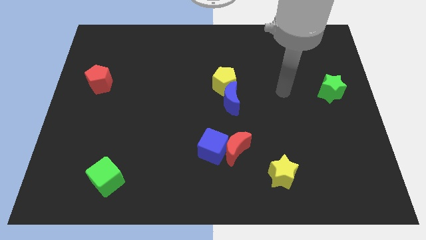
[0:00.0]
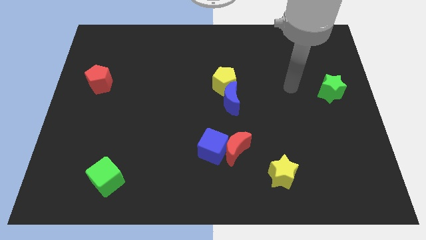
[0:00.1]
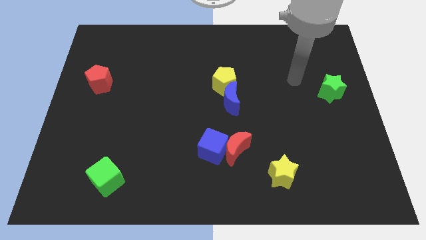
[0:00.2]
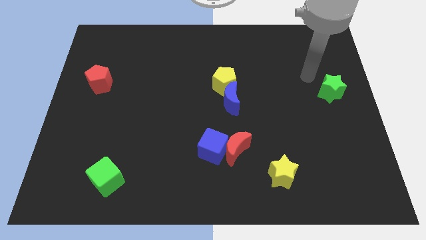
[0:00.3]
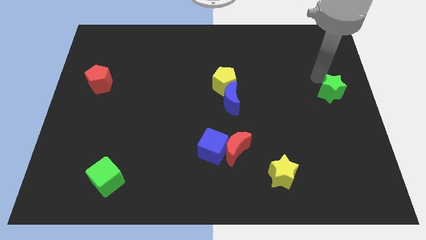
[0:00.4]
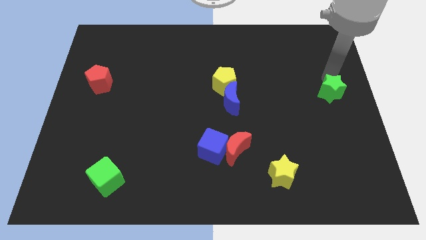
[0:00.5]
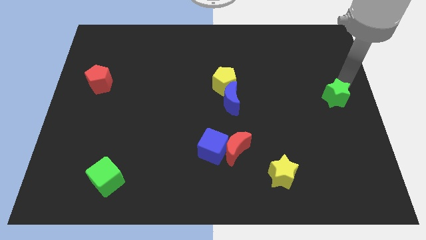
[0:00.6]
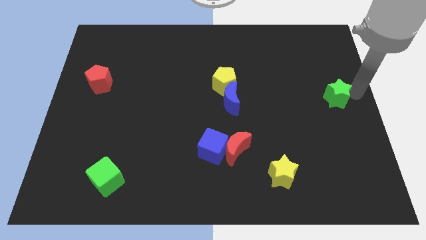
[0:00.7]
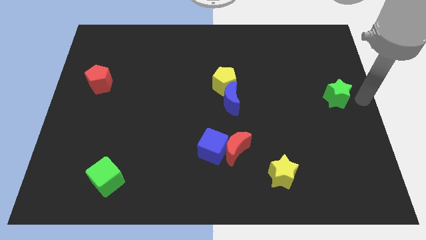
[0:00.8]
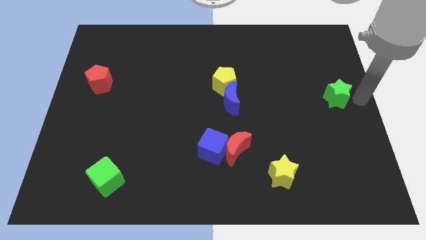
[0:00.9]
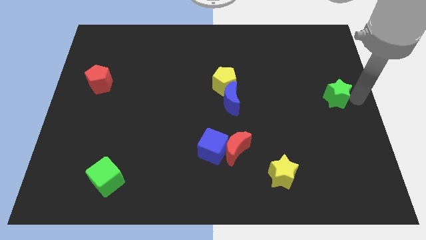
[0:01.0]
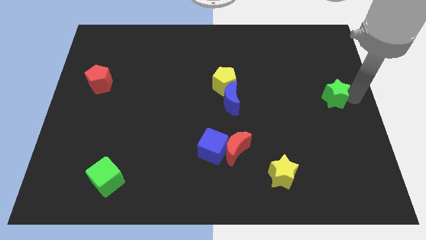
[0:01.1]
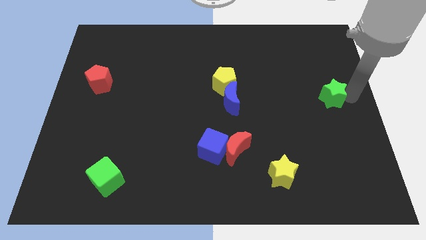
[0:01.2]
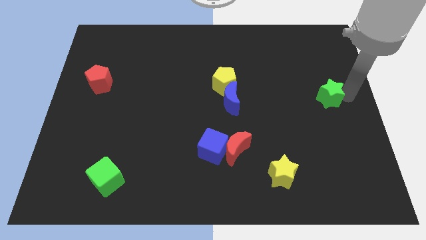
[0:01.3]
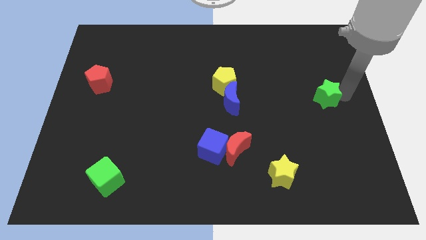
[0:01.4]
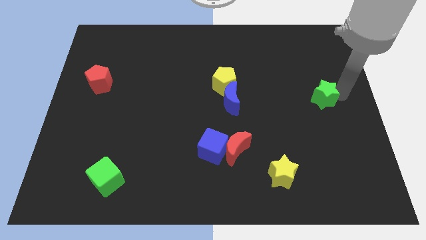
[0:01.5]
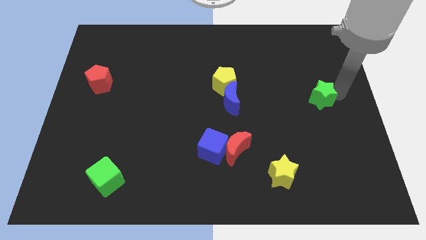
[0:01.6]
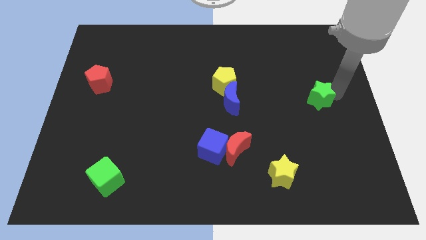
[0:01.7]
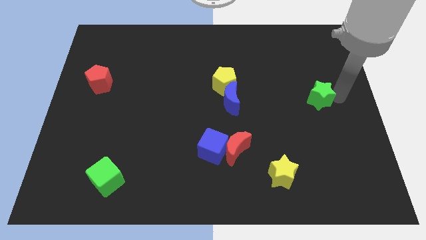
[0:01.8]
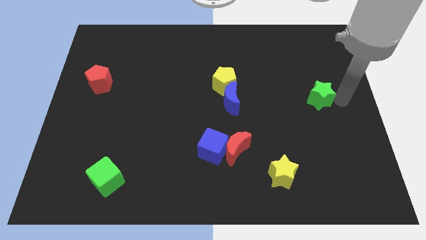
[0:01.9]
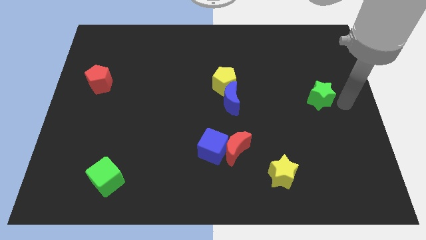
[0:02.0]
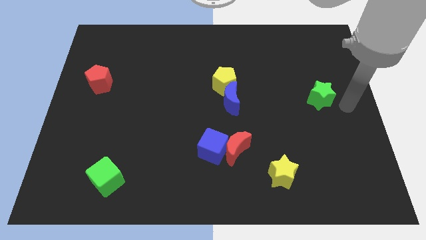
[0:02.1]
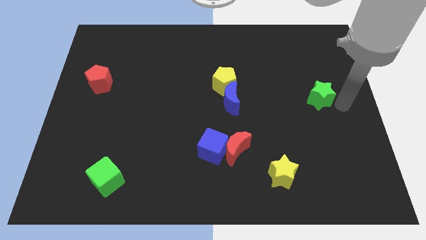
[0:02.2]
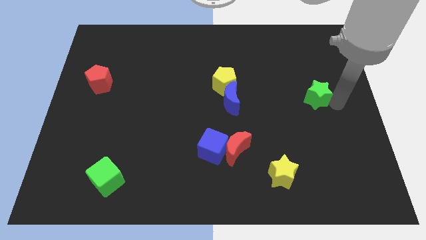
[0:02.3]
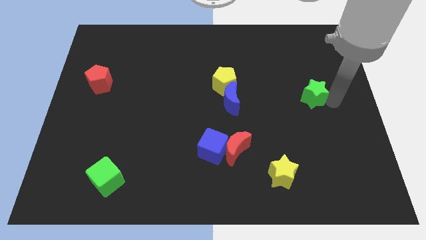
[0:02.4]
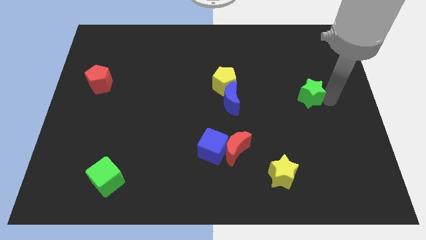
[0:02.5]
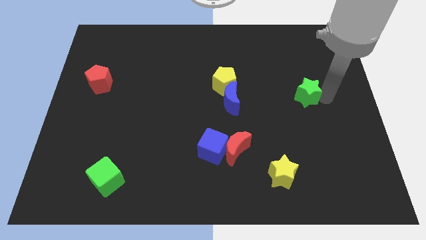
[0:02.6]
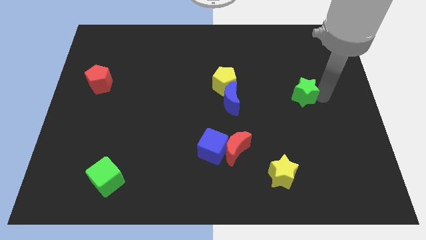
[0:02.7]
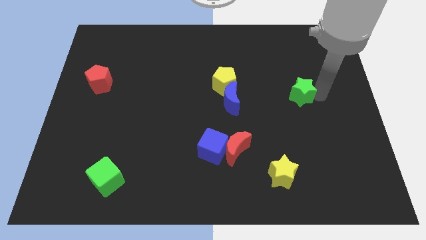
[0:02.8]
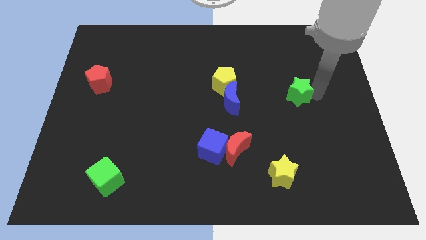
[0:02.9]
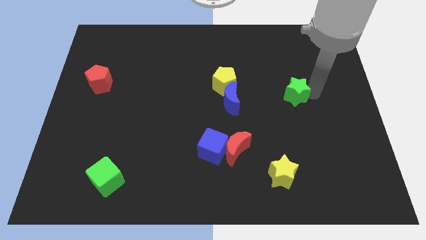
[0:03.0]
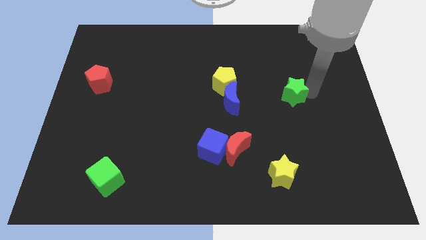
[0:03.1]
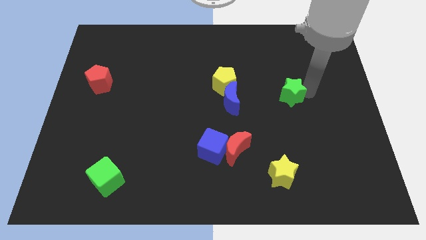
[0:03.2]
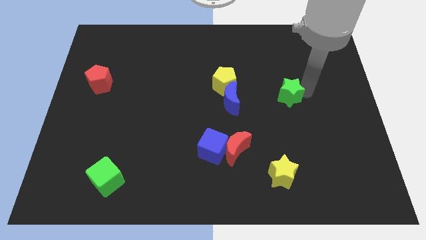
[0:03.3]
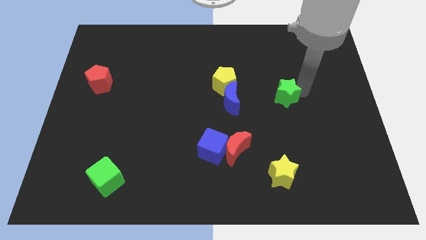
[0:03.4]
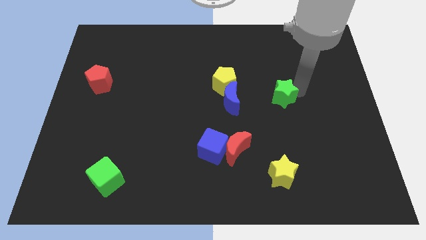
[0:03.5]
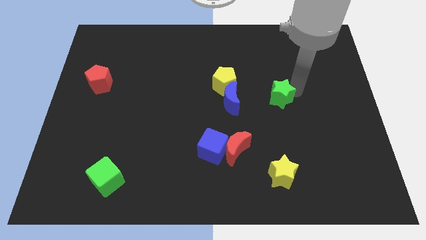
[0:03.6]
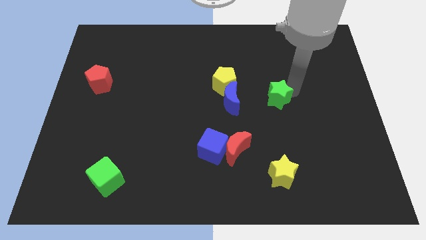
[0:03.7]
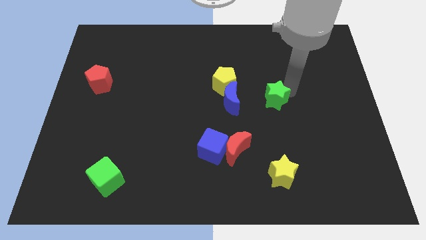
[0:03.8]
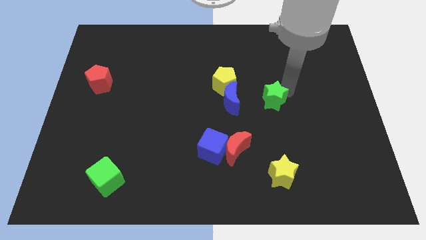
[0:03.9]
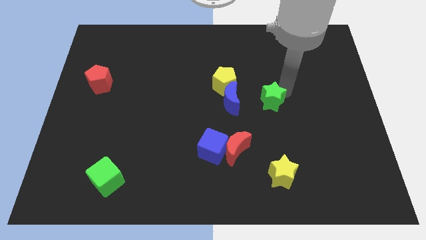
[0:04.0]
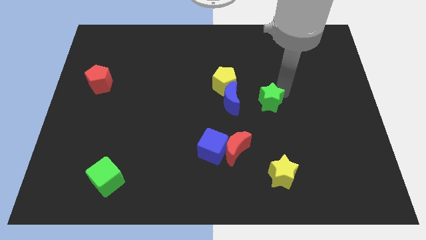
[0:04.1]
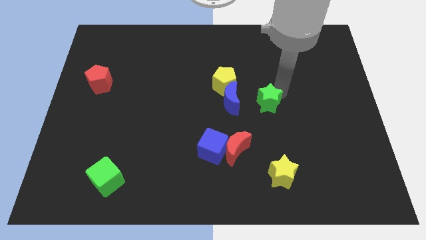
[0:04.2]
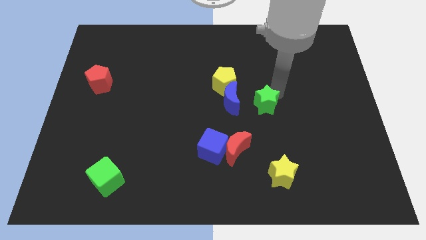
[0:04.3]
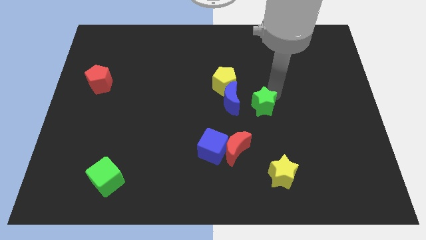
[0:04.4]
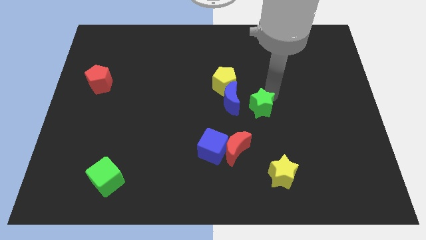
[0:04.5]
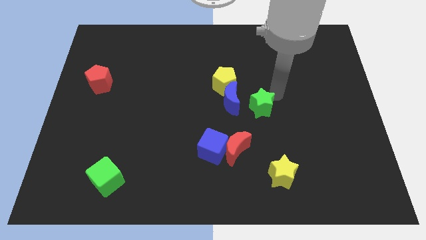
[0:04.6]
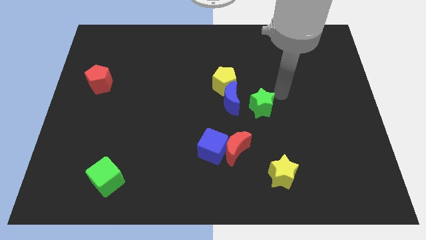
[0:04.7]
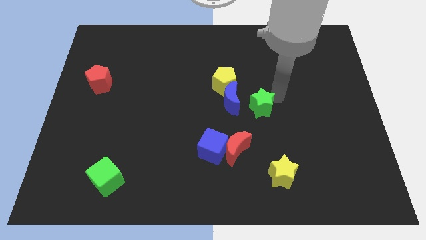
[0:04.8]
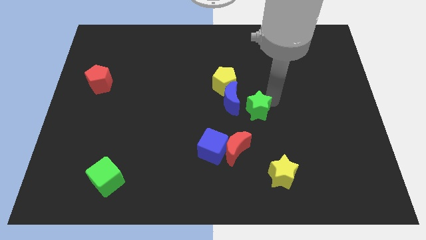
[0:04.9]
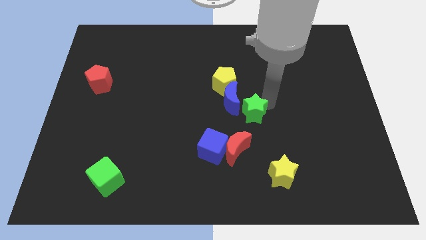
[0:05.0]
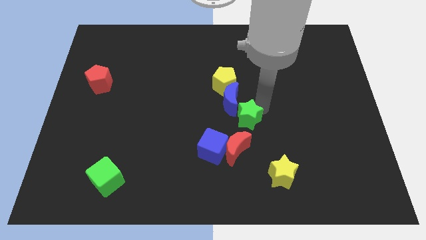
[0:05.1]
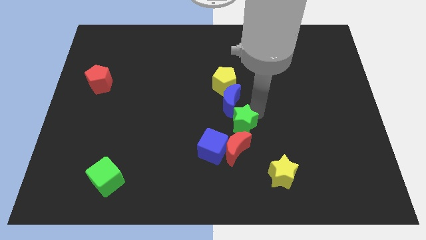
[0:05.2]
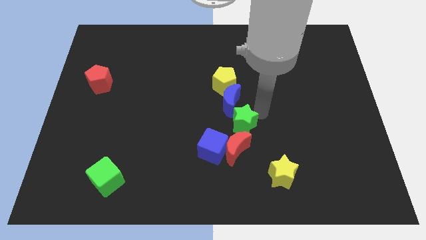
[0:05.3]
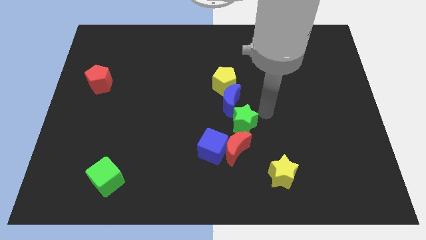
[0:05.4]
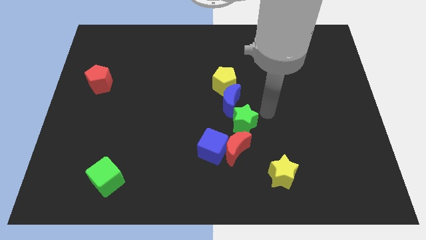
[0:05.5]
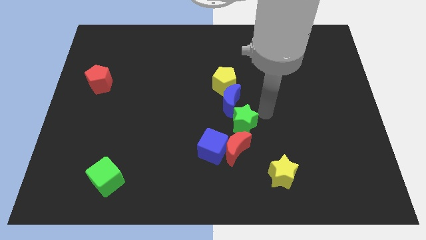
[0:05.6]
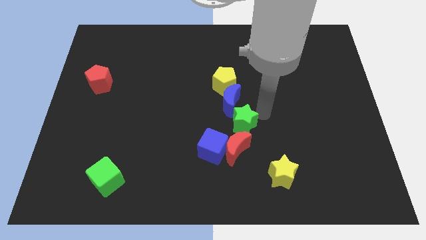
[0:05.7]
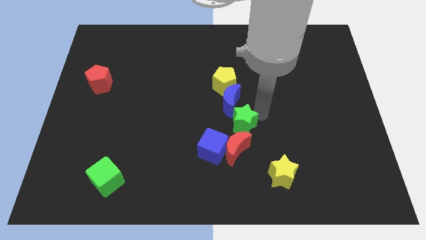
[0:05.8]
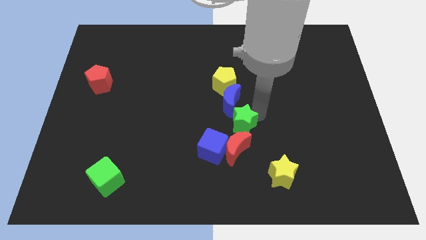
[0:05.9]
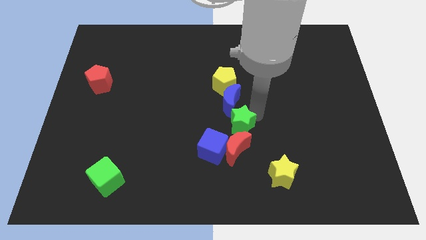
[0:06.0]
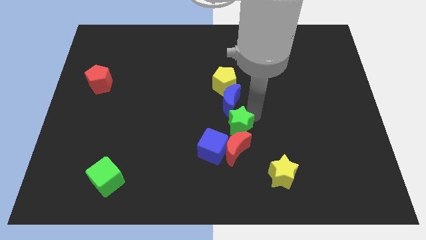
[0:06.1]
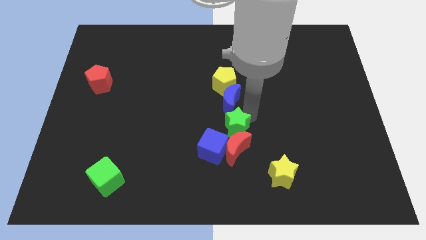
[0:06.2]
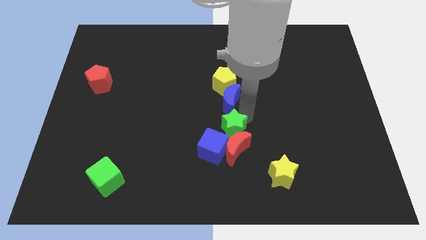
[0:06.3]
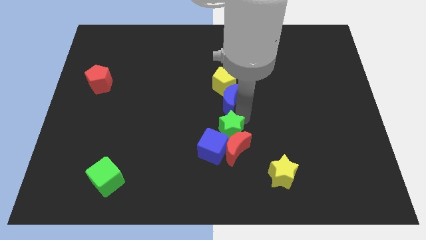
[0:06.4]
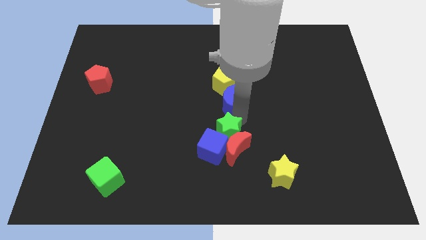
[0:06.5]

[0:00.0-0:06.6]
push the green star close to the blue cube
